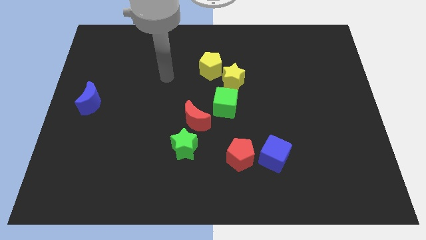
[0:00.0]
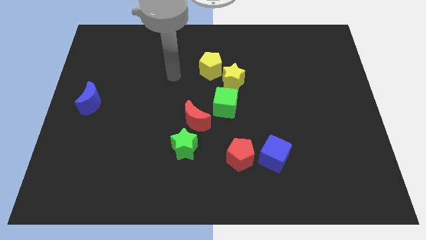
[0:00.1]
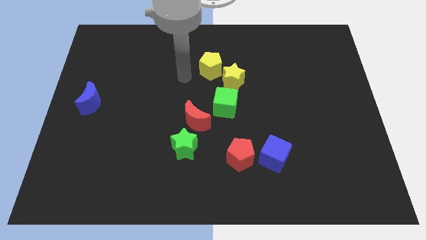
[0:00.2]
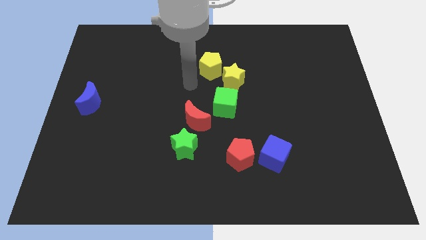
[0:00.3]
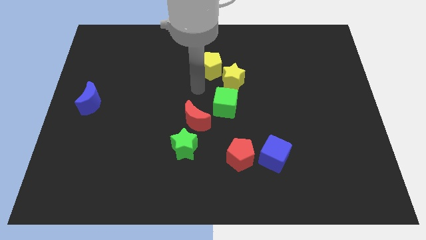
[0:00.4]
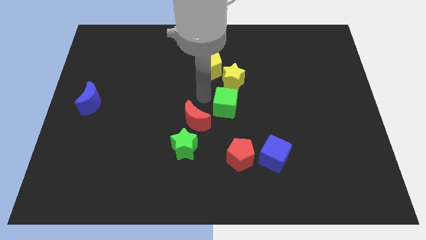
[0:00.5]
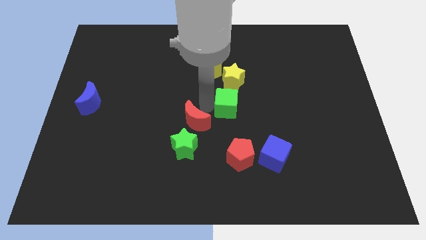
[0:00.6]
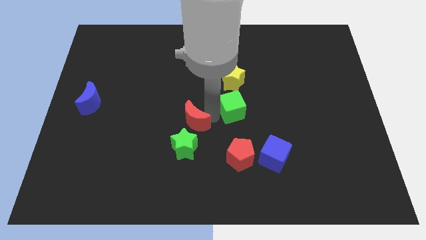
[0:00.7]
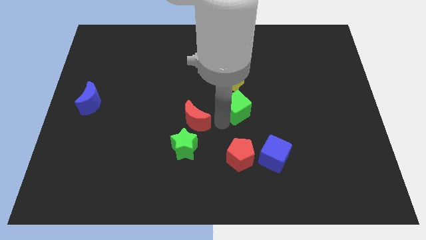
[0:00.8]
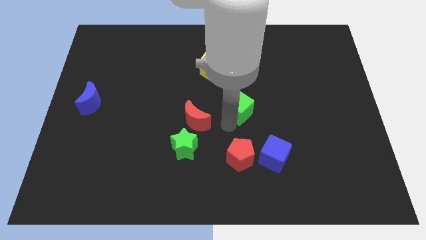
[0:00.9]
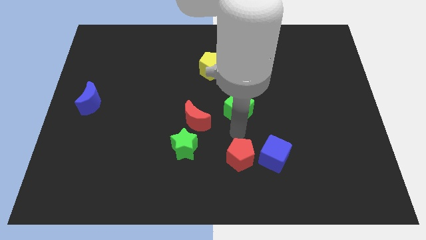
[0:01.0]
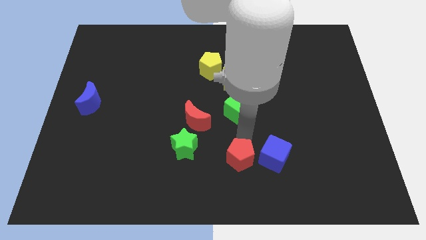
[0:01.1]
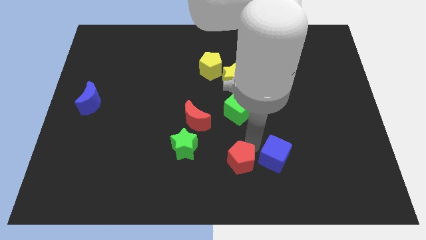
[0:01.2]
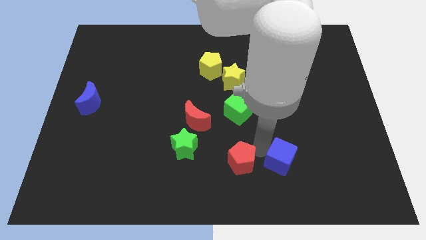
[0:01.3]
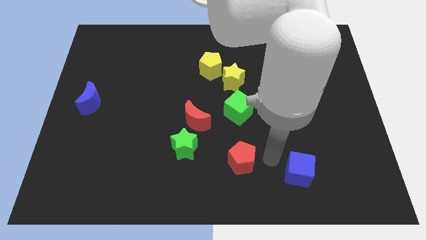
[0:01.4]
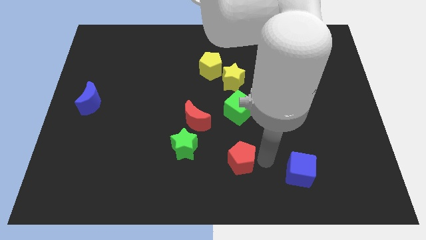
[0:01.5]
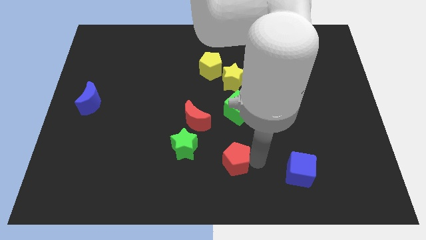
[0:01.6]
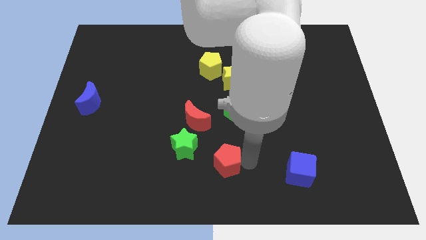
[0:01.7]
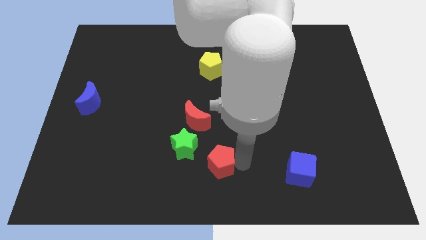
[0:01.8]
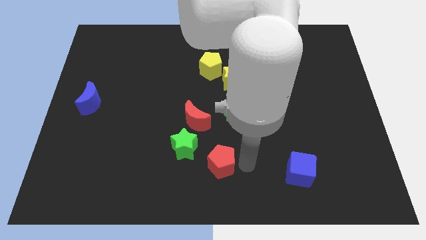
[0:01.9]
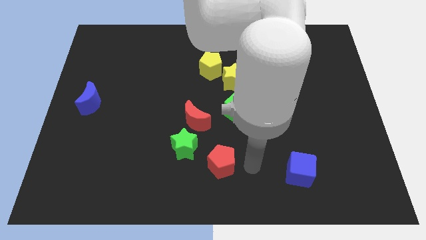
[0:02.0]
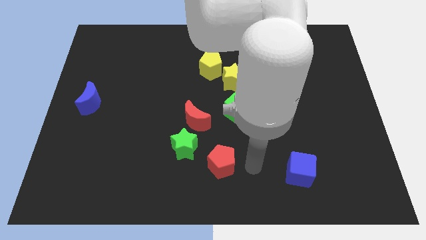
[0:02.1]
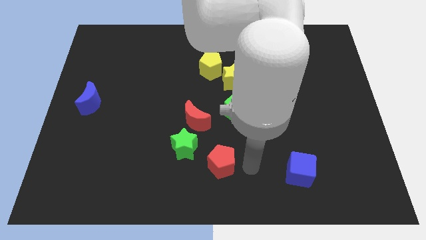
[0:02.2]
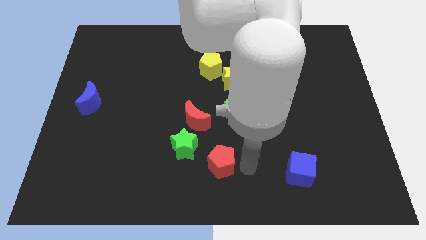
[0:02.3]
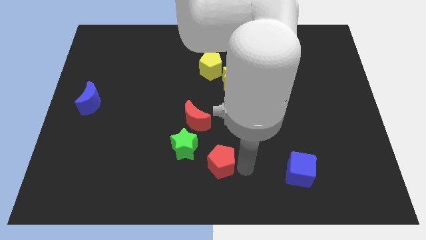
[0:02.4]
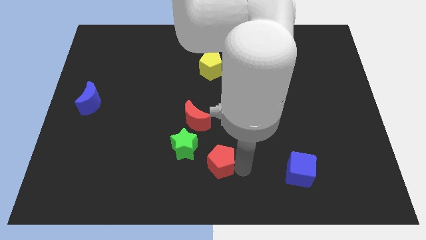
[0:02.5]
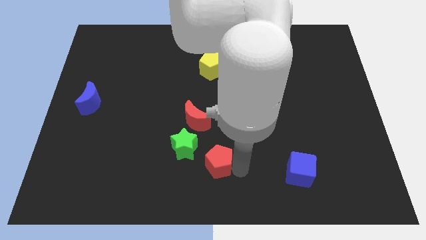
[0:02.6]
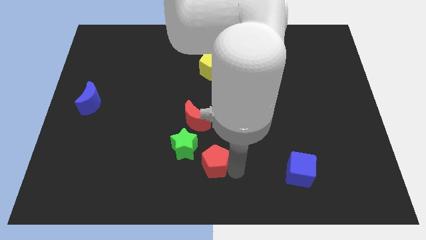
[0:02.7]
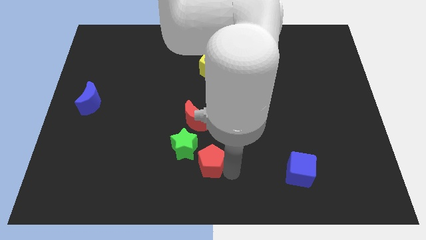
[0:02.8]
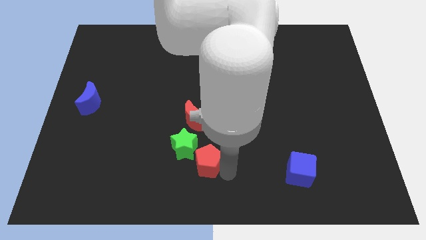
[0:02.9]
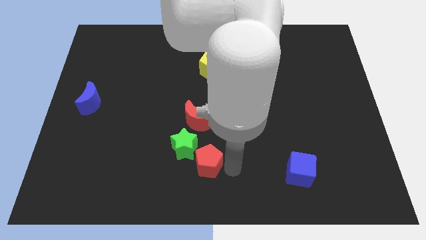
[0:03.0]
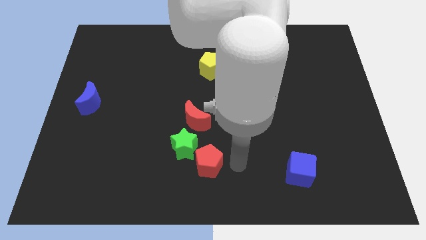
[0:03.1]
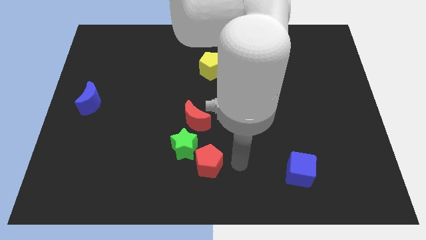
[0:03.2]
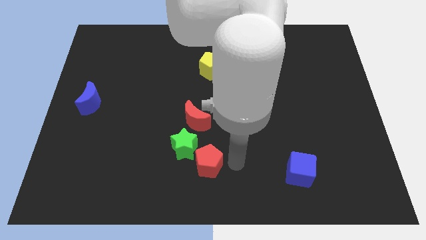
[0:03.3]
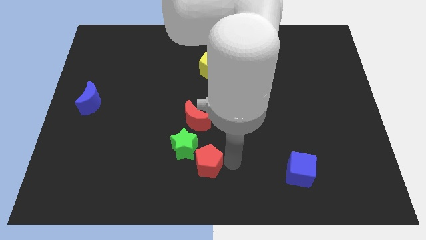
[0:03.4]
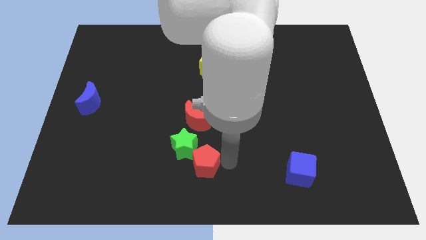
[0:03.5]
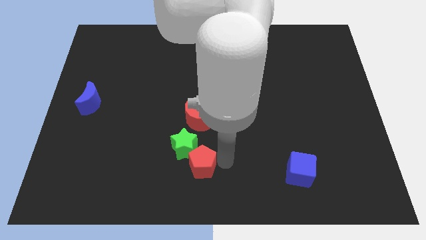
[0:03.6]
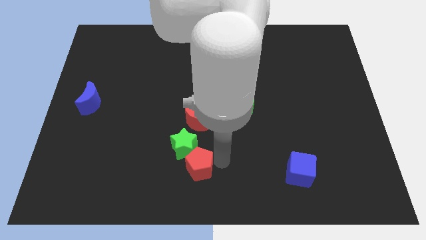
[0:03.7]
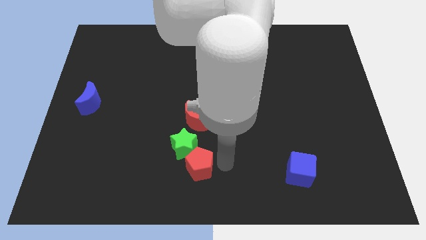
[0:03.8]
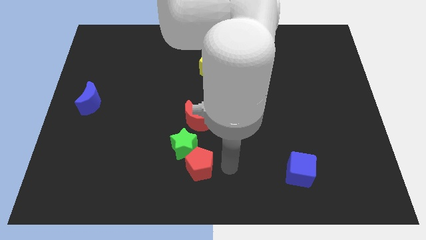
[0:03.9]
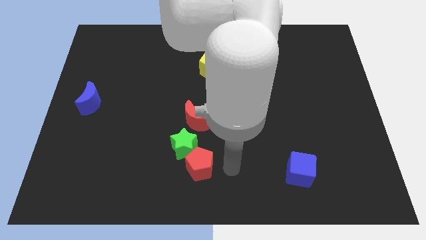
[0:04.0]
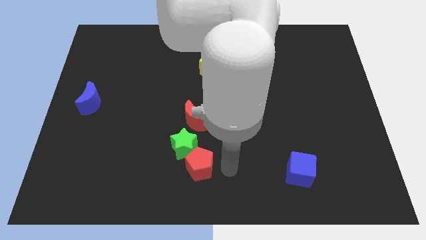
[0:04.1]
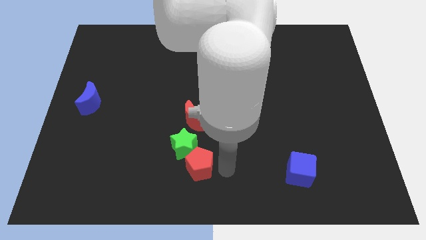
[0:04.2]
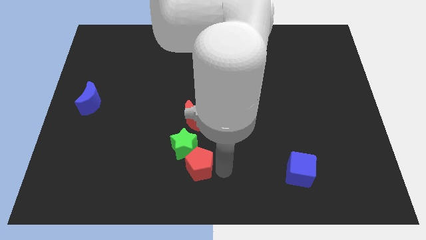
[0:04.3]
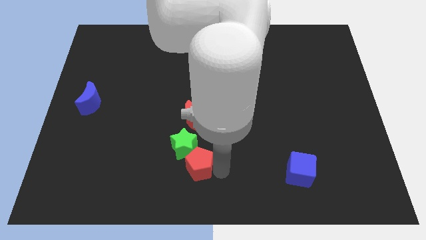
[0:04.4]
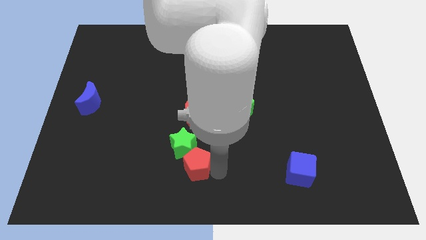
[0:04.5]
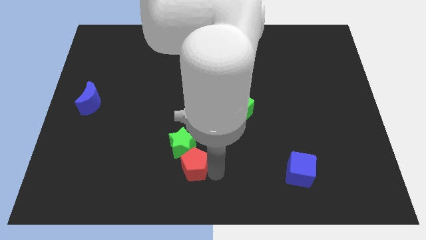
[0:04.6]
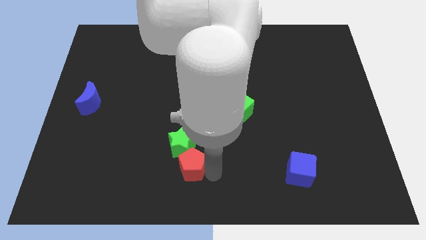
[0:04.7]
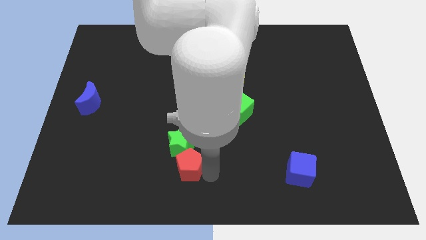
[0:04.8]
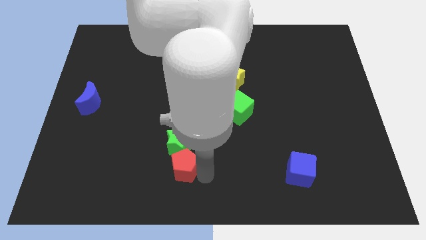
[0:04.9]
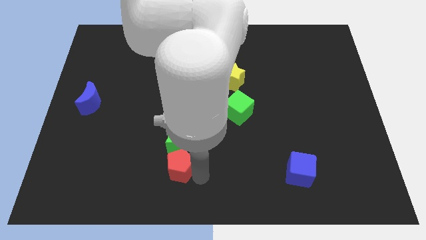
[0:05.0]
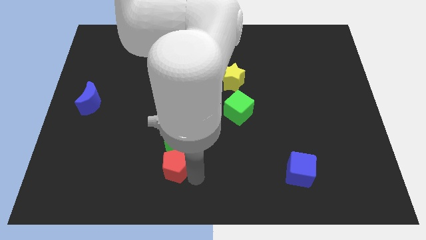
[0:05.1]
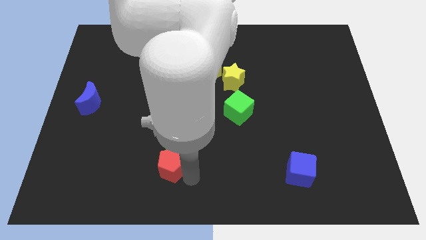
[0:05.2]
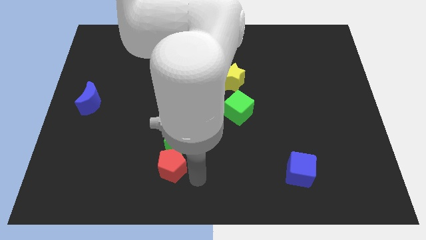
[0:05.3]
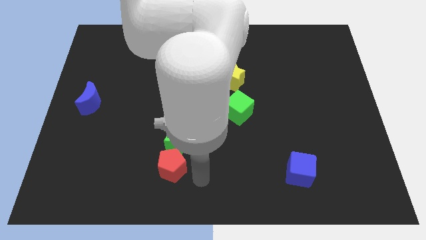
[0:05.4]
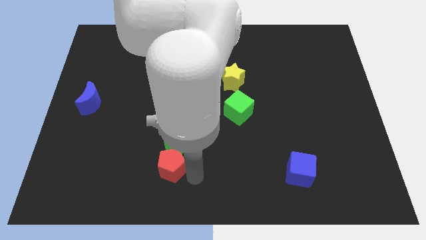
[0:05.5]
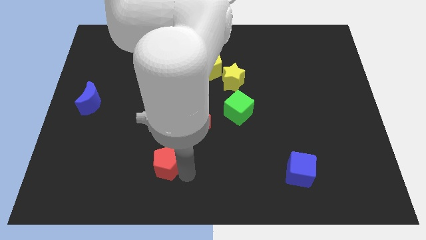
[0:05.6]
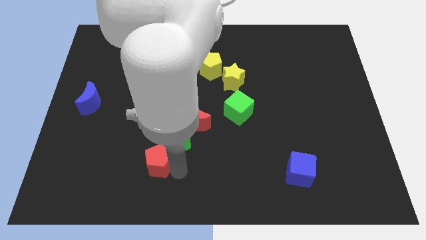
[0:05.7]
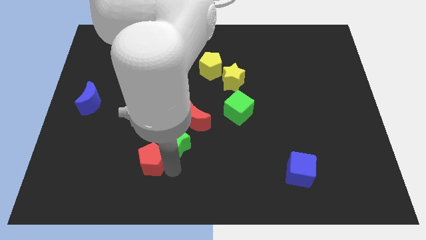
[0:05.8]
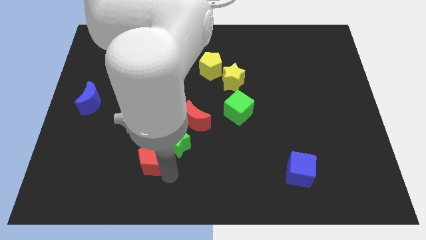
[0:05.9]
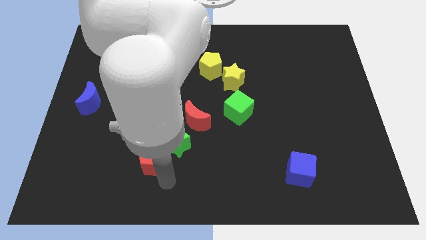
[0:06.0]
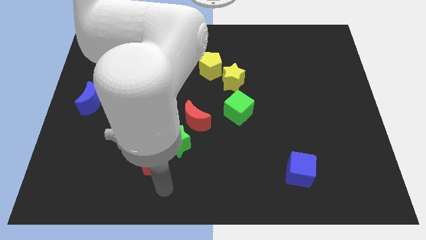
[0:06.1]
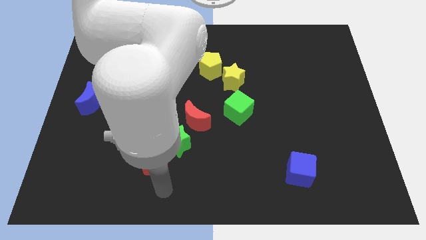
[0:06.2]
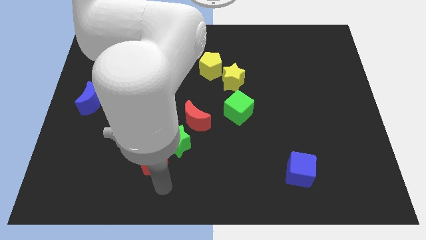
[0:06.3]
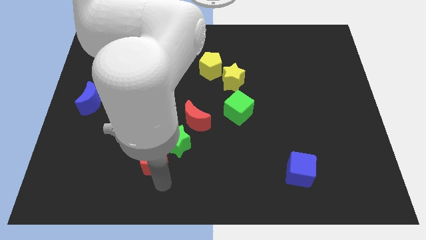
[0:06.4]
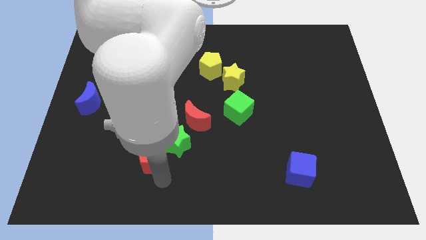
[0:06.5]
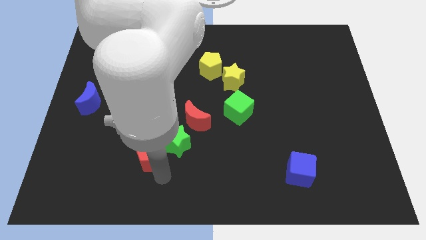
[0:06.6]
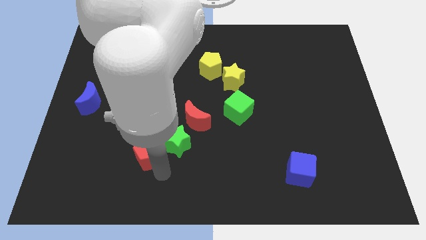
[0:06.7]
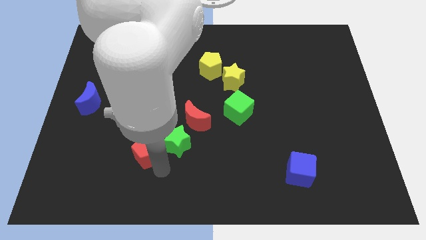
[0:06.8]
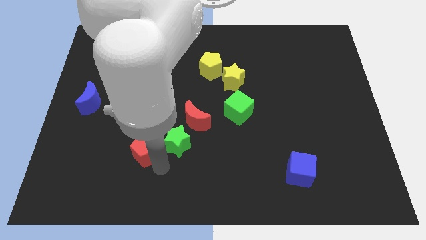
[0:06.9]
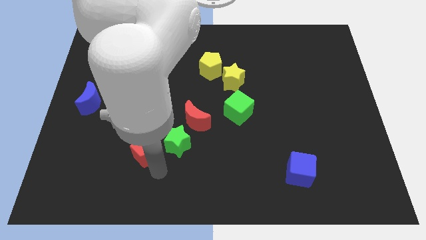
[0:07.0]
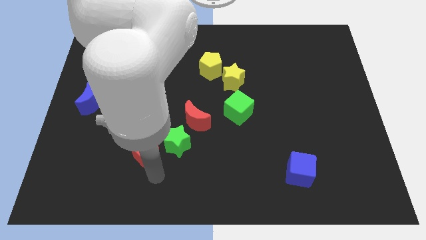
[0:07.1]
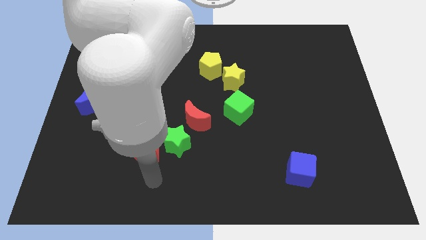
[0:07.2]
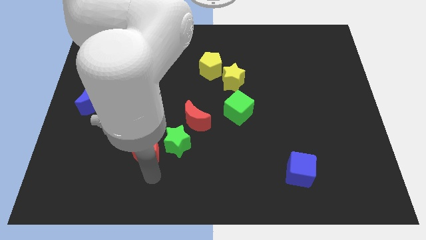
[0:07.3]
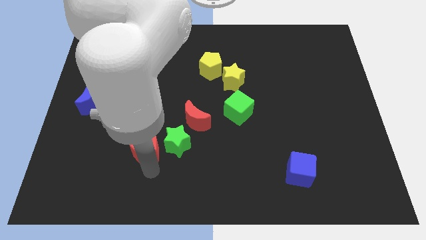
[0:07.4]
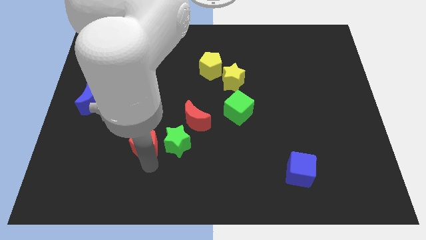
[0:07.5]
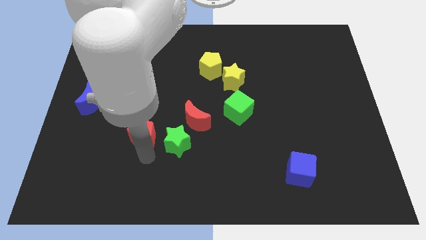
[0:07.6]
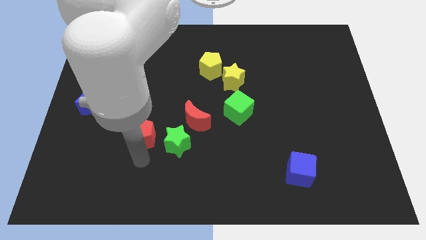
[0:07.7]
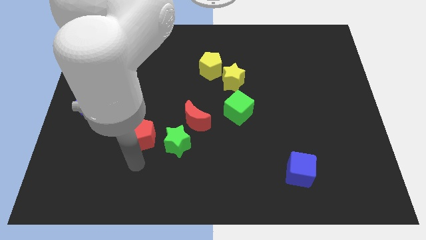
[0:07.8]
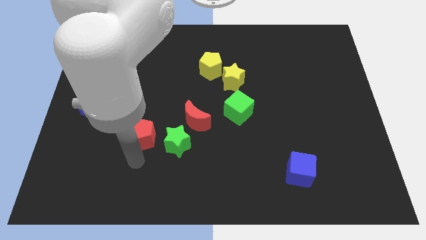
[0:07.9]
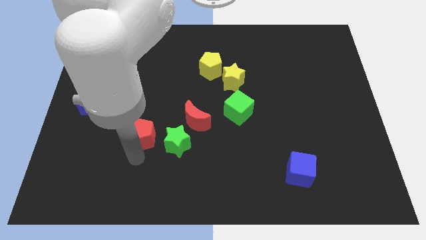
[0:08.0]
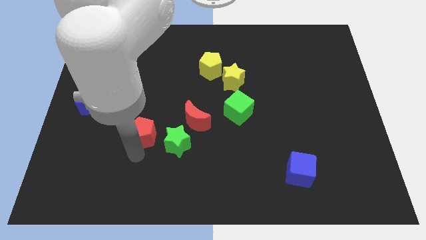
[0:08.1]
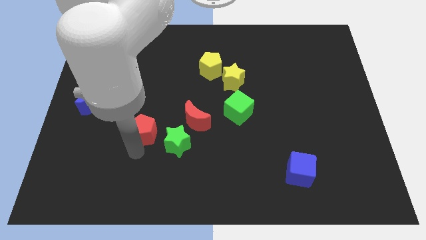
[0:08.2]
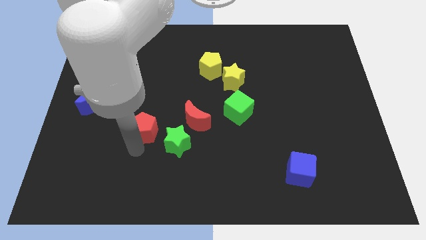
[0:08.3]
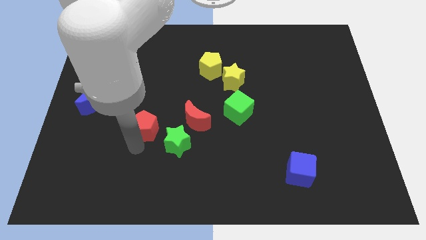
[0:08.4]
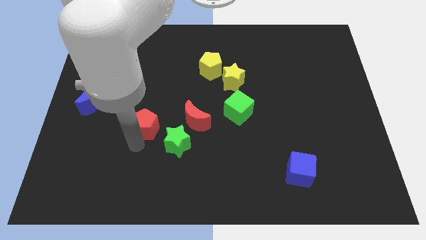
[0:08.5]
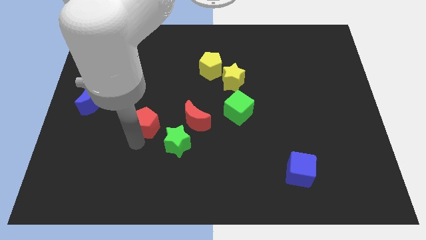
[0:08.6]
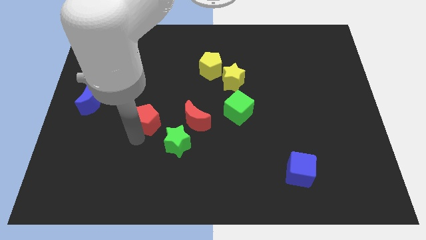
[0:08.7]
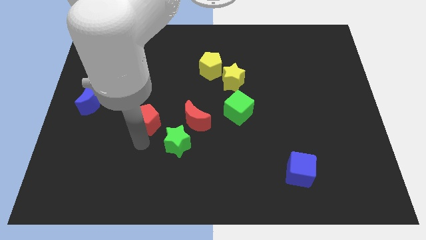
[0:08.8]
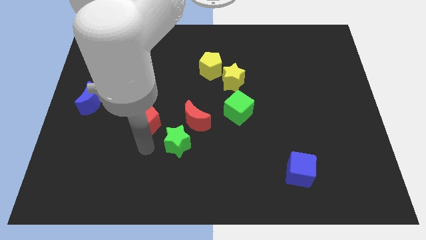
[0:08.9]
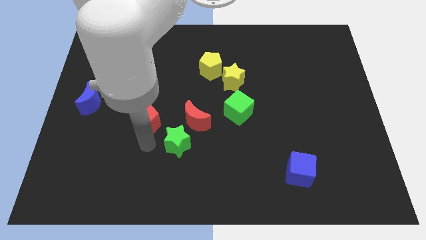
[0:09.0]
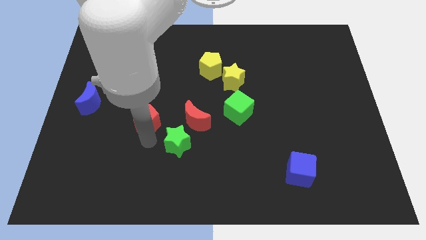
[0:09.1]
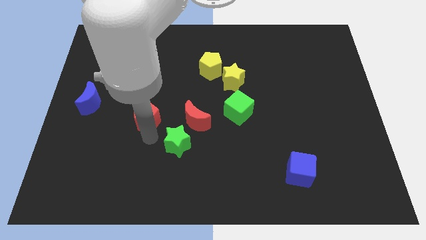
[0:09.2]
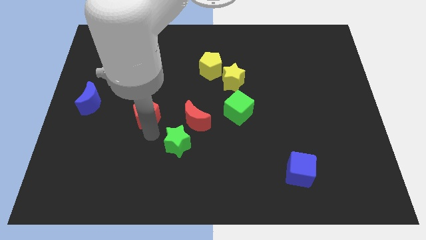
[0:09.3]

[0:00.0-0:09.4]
move the red pentagon diagonally upwards and to the left
